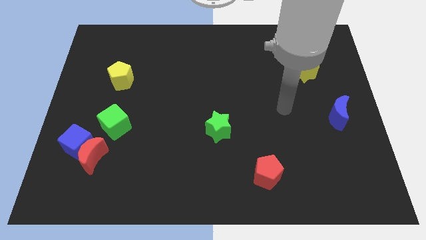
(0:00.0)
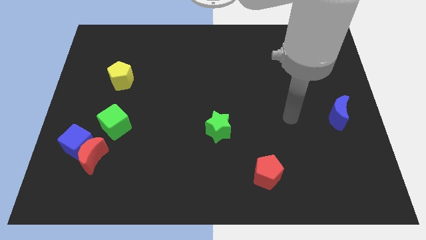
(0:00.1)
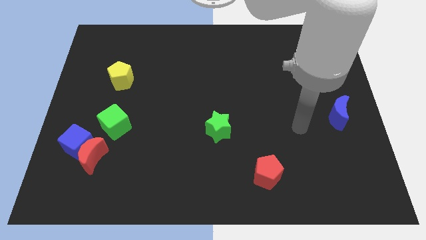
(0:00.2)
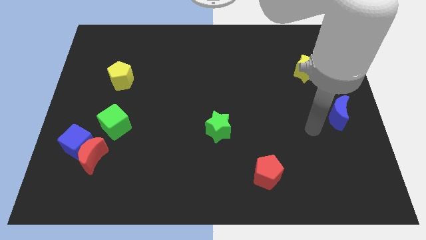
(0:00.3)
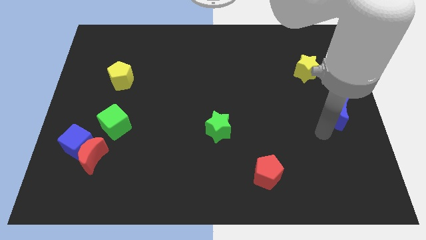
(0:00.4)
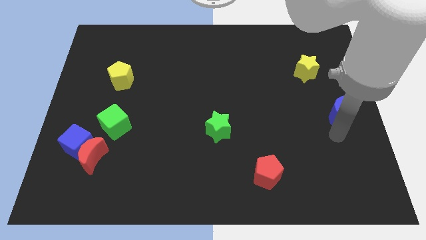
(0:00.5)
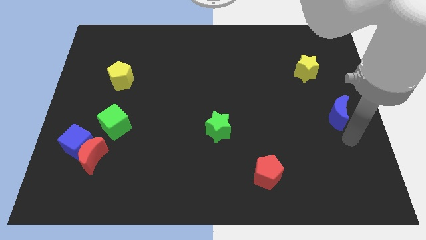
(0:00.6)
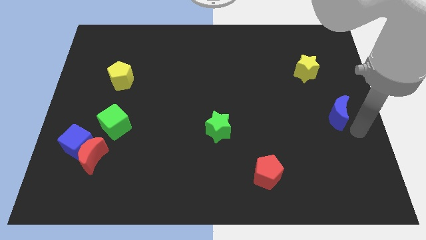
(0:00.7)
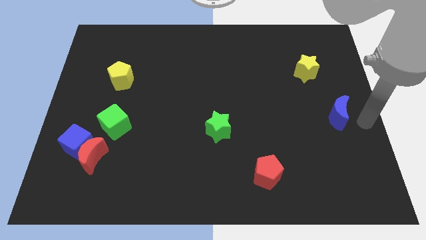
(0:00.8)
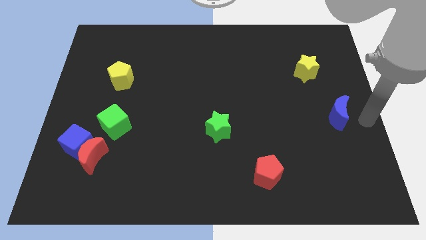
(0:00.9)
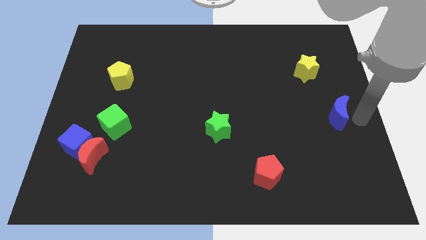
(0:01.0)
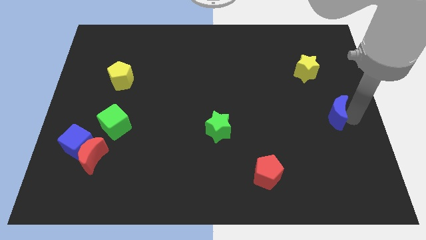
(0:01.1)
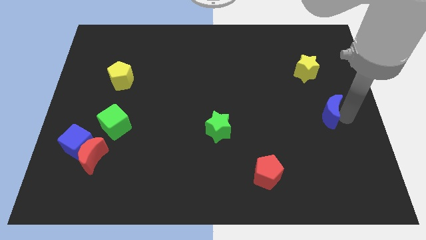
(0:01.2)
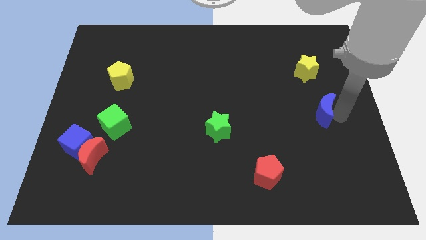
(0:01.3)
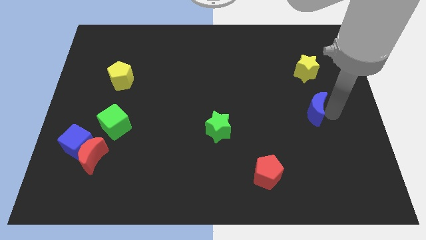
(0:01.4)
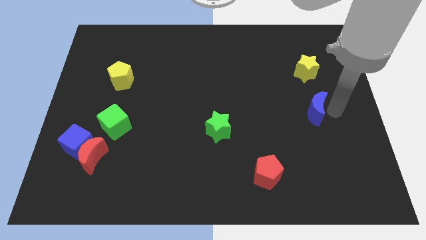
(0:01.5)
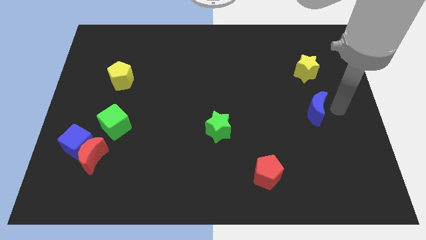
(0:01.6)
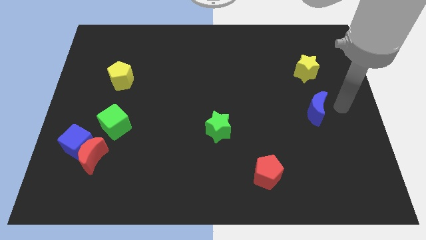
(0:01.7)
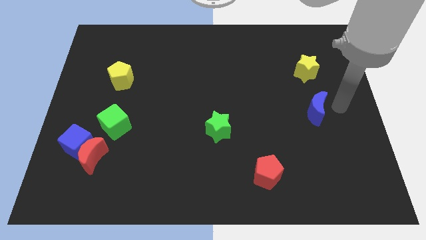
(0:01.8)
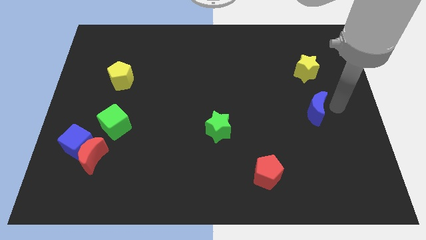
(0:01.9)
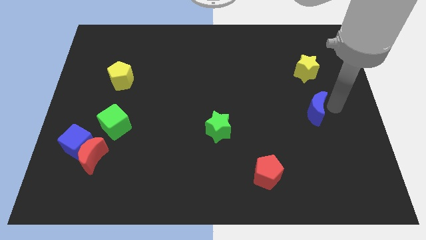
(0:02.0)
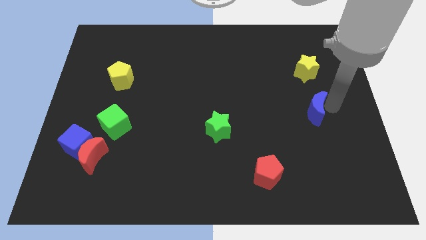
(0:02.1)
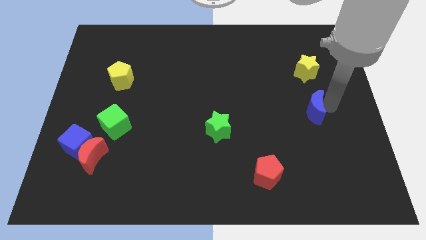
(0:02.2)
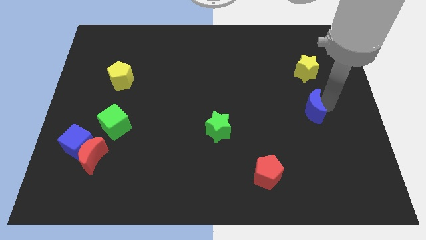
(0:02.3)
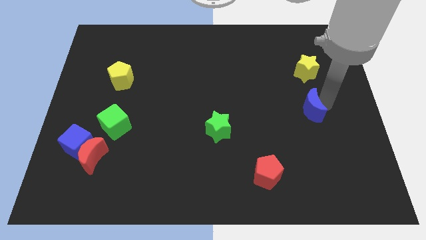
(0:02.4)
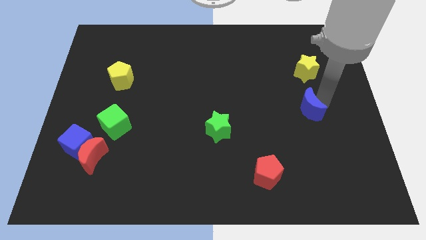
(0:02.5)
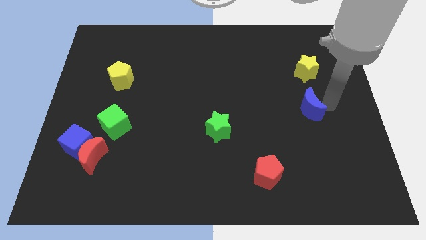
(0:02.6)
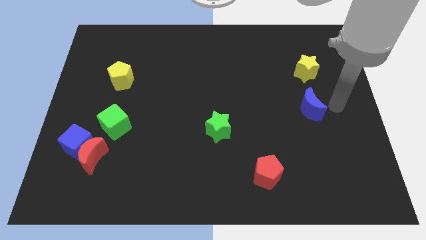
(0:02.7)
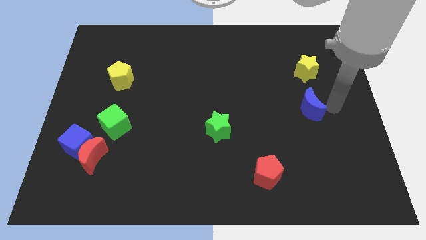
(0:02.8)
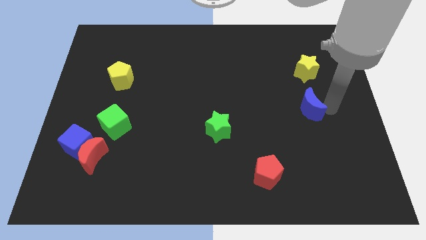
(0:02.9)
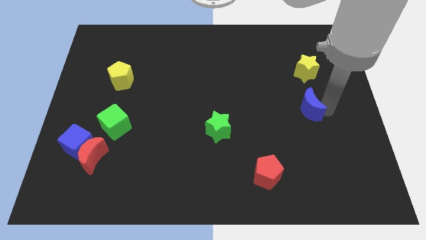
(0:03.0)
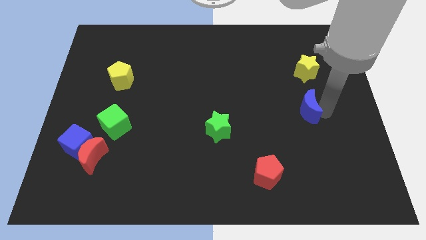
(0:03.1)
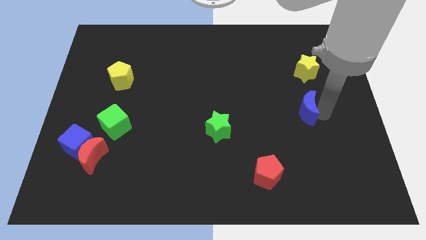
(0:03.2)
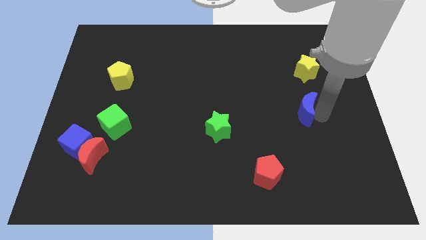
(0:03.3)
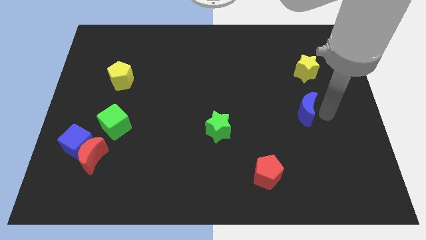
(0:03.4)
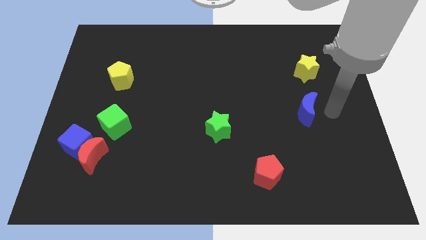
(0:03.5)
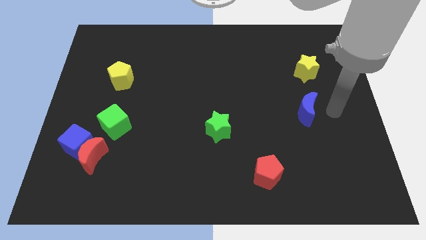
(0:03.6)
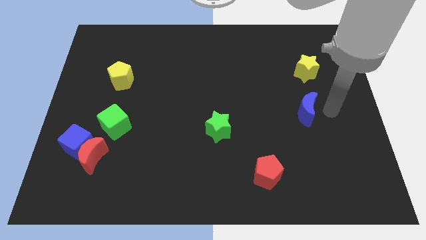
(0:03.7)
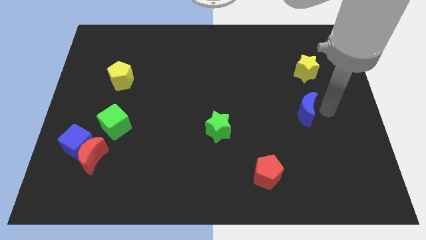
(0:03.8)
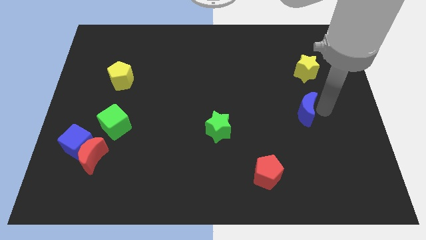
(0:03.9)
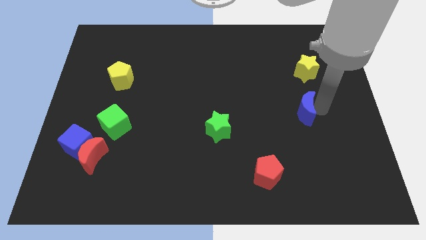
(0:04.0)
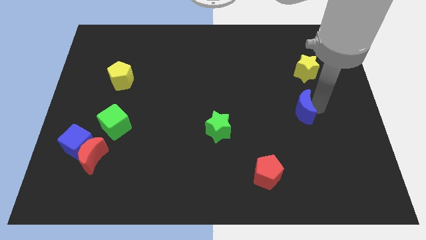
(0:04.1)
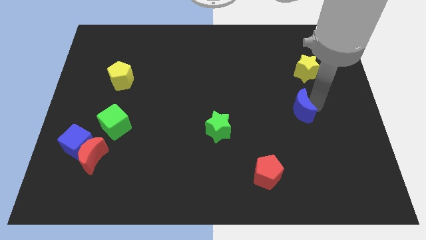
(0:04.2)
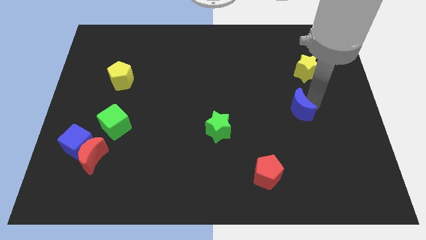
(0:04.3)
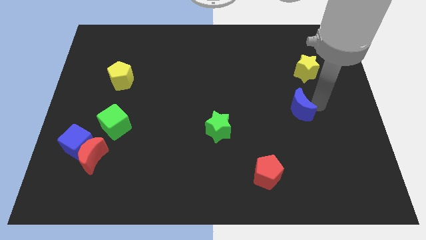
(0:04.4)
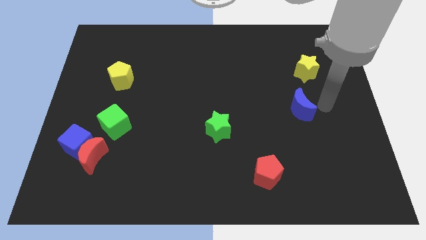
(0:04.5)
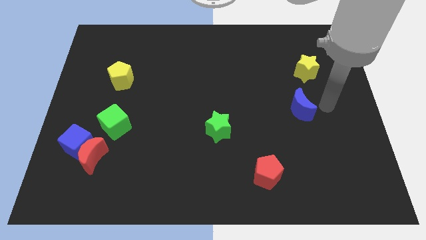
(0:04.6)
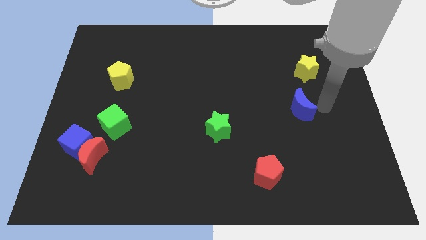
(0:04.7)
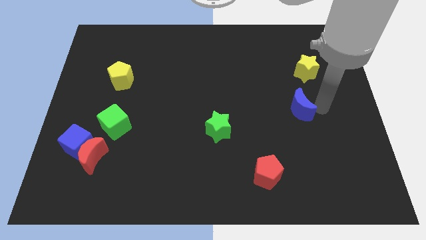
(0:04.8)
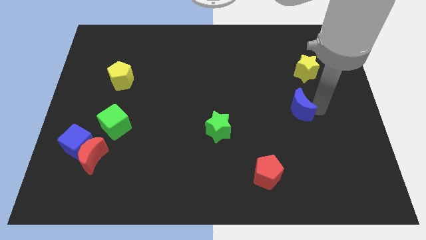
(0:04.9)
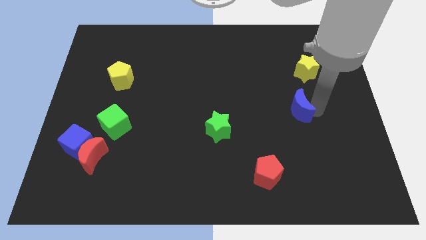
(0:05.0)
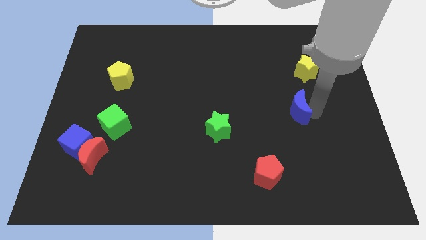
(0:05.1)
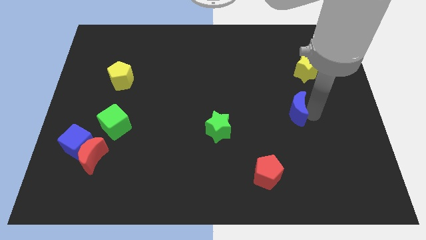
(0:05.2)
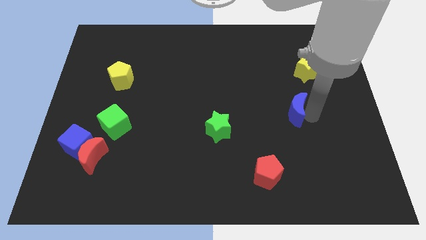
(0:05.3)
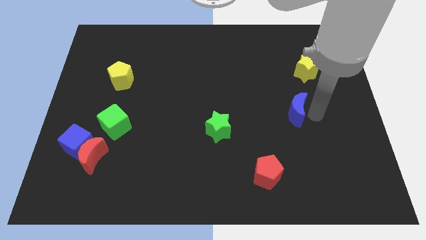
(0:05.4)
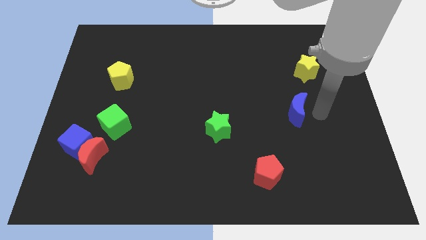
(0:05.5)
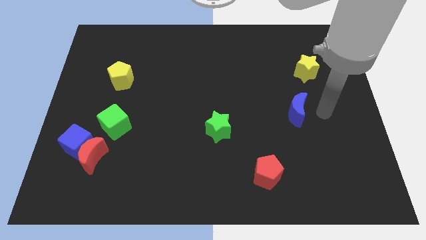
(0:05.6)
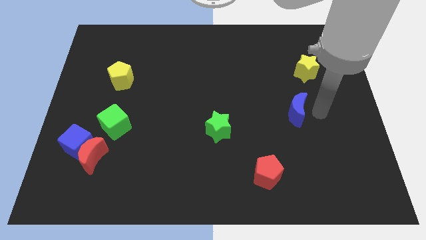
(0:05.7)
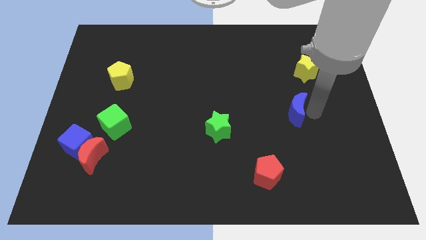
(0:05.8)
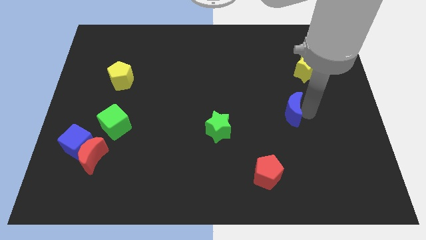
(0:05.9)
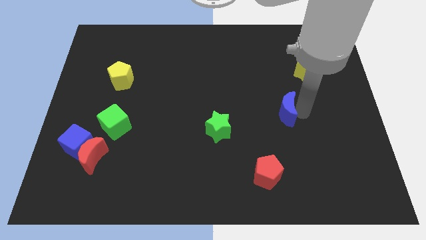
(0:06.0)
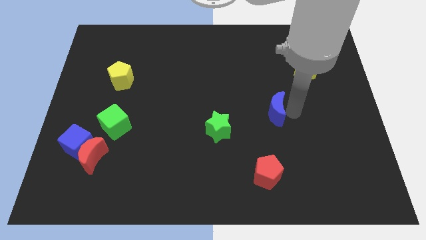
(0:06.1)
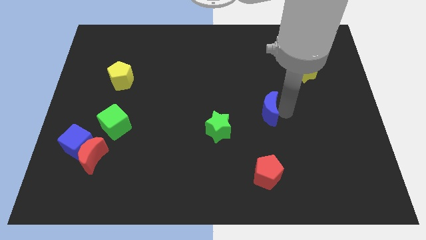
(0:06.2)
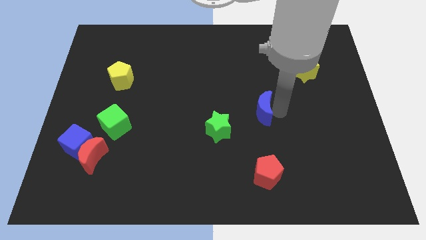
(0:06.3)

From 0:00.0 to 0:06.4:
move the blue moon to the center
